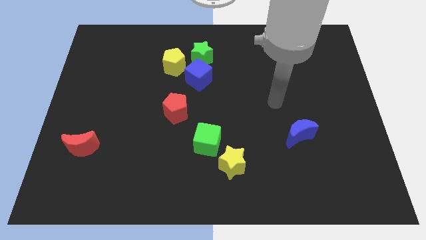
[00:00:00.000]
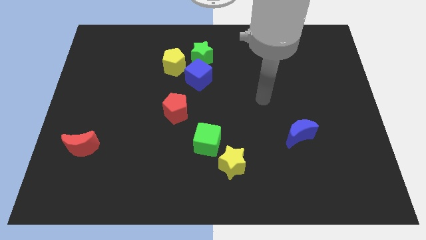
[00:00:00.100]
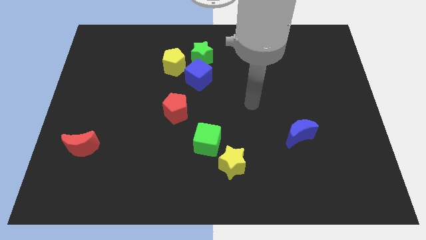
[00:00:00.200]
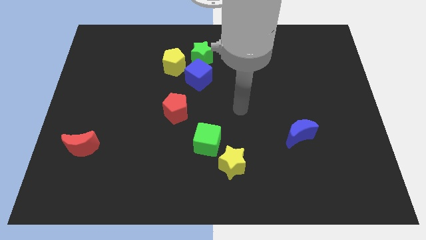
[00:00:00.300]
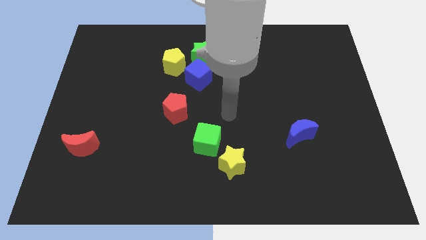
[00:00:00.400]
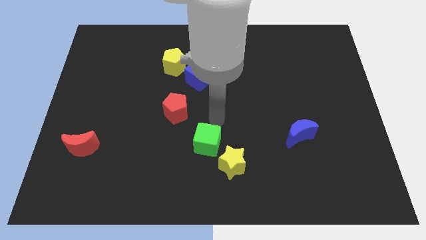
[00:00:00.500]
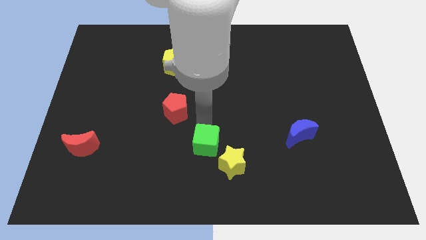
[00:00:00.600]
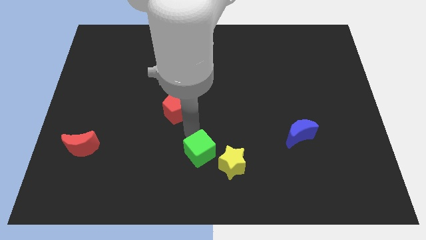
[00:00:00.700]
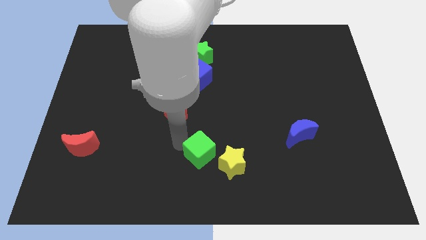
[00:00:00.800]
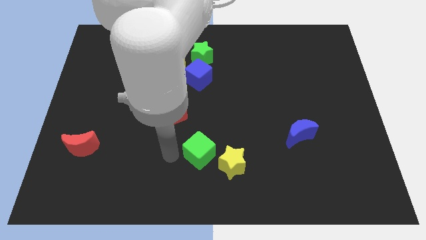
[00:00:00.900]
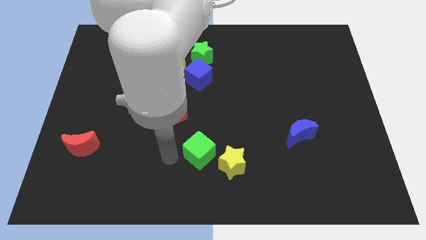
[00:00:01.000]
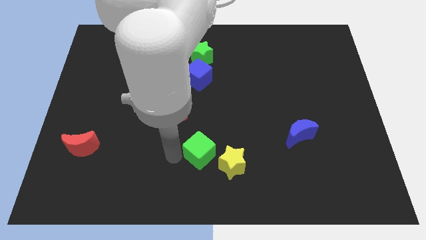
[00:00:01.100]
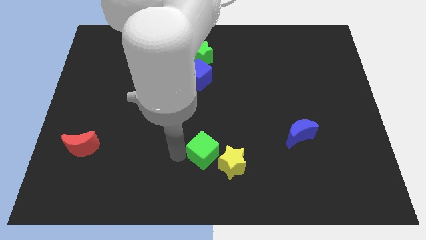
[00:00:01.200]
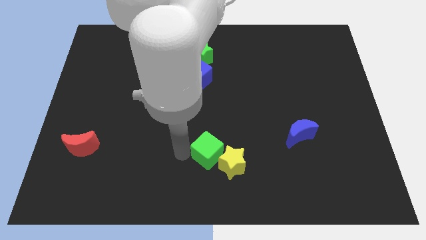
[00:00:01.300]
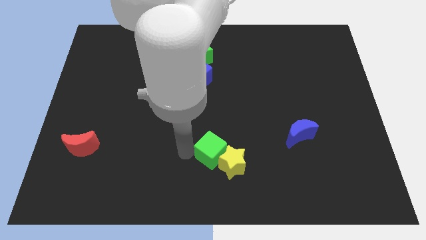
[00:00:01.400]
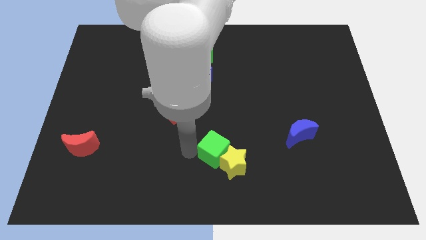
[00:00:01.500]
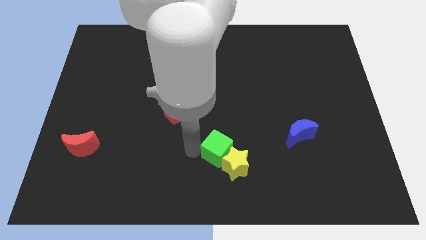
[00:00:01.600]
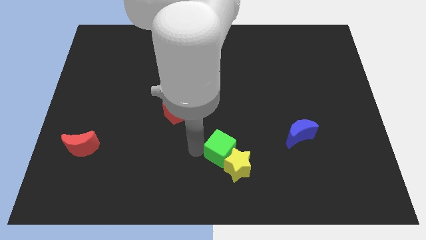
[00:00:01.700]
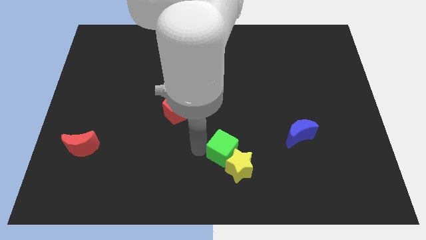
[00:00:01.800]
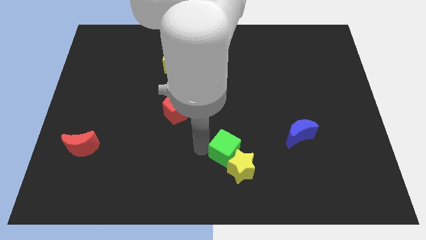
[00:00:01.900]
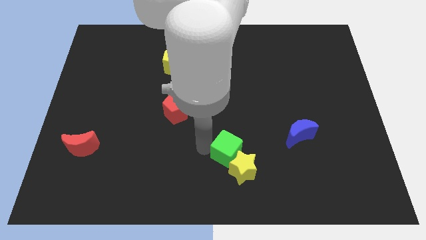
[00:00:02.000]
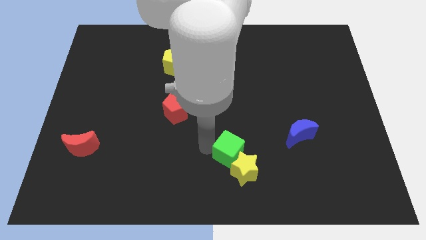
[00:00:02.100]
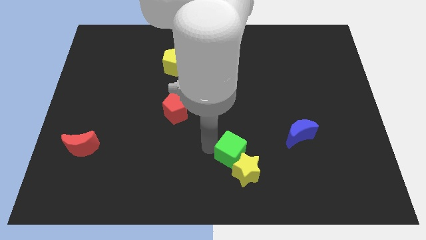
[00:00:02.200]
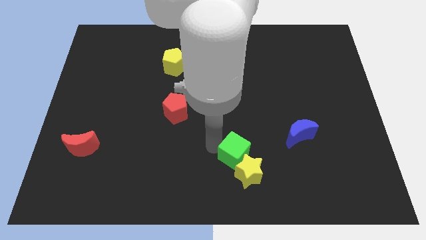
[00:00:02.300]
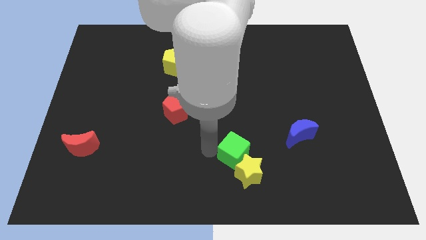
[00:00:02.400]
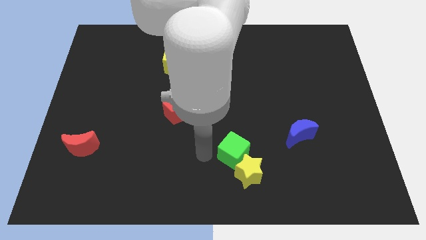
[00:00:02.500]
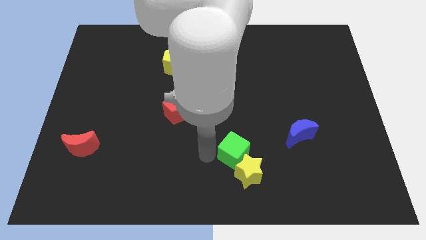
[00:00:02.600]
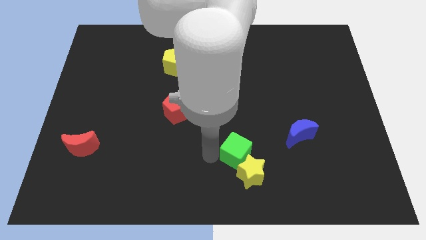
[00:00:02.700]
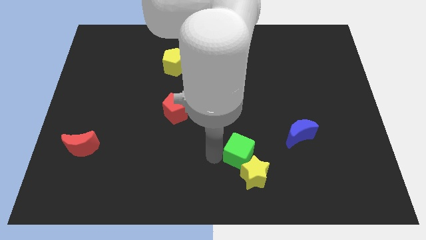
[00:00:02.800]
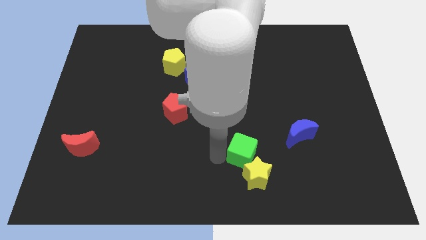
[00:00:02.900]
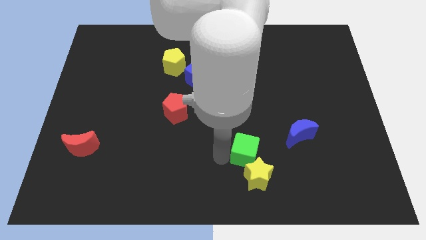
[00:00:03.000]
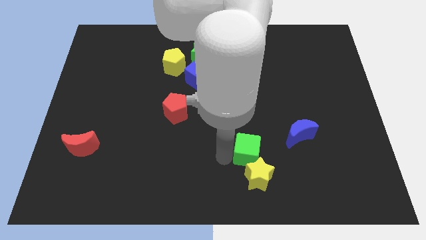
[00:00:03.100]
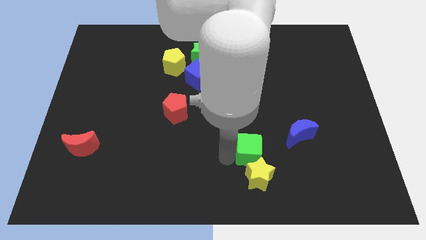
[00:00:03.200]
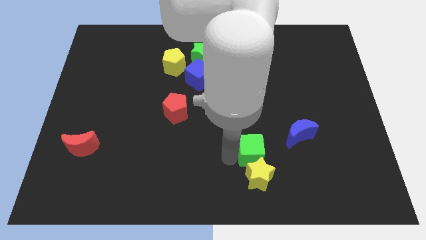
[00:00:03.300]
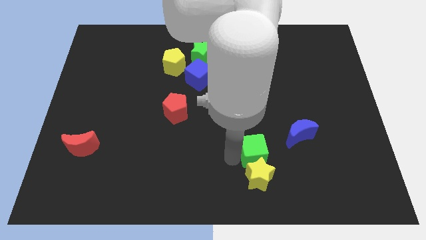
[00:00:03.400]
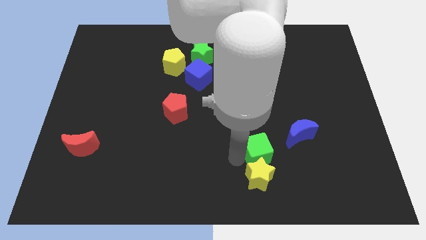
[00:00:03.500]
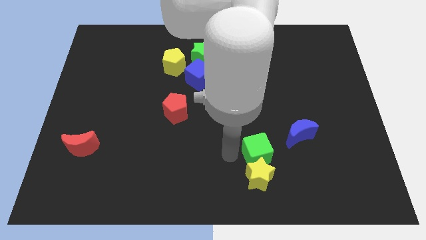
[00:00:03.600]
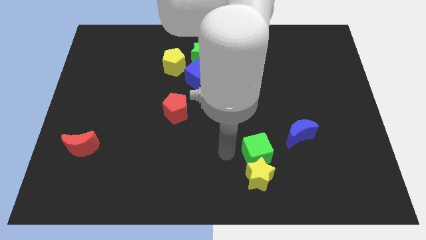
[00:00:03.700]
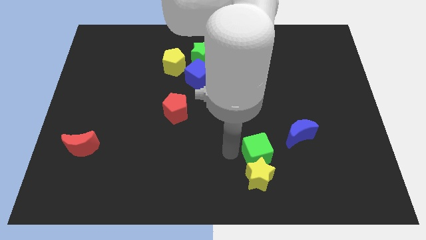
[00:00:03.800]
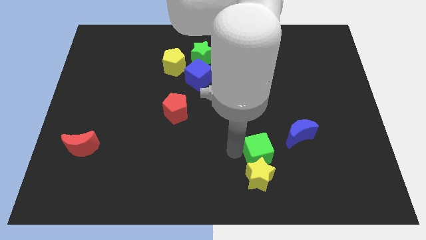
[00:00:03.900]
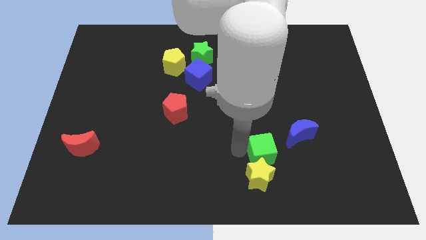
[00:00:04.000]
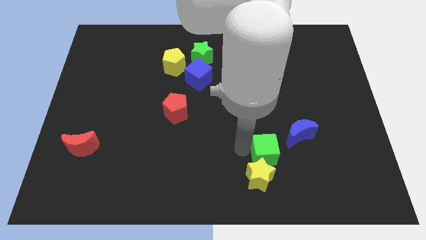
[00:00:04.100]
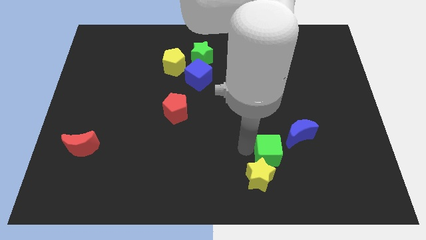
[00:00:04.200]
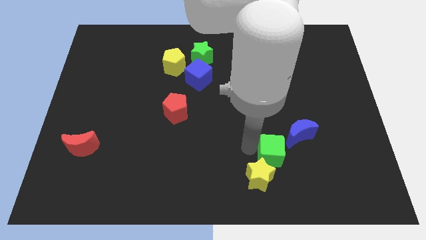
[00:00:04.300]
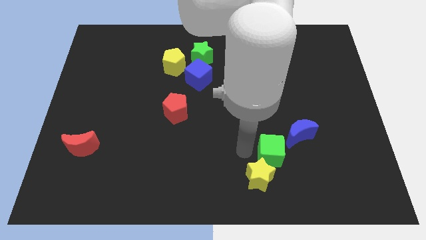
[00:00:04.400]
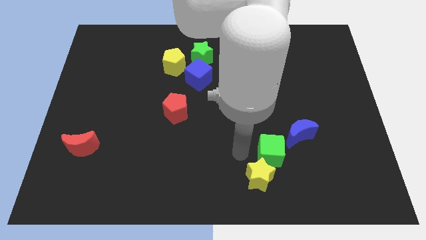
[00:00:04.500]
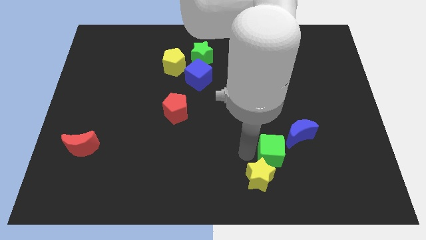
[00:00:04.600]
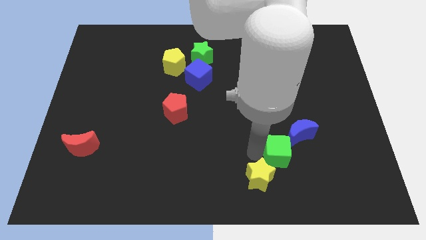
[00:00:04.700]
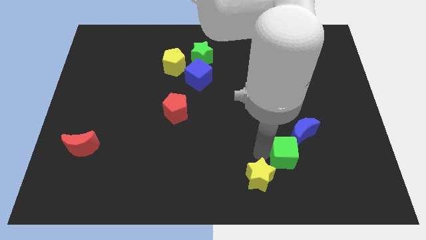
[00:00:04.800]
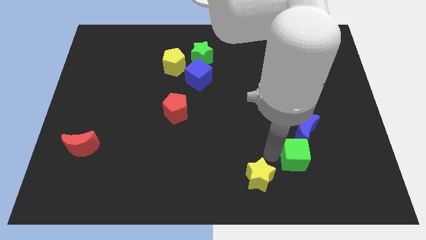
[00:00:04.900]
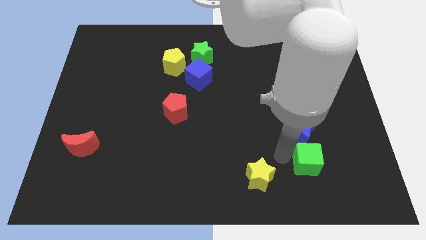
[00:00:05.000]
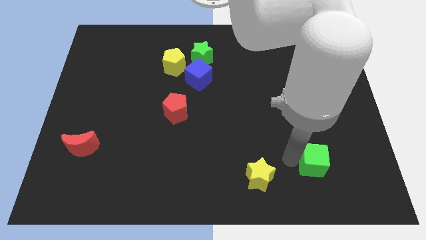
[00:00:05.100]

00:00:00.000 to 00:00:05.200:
move the green cube to the bottom right of the blue moon

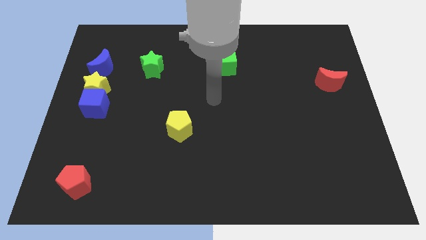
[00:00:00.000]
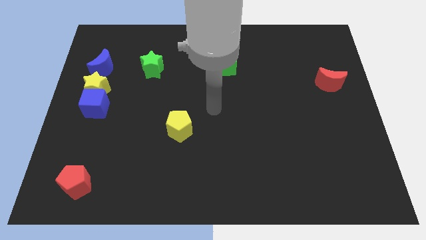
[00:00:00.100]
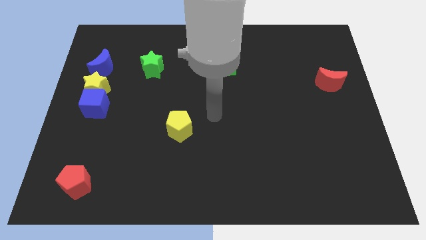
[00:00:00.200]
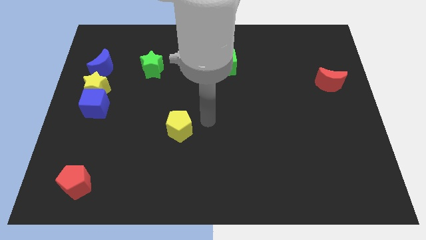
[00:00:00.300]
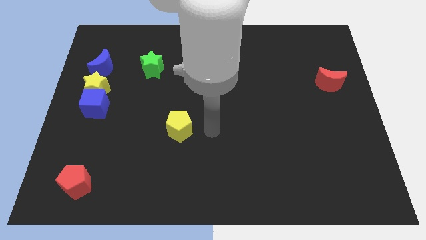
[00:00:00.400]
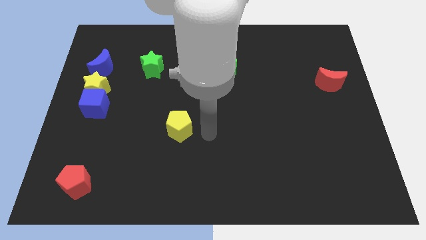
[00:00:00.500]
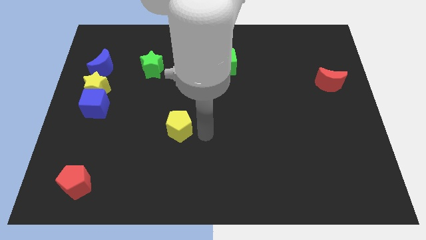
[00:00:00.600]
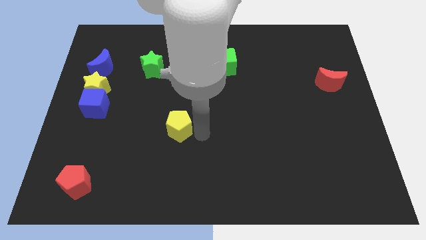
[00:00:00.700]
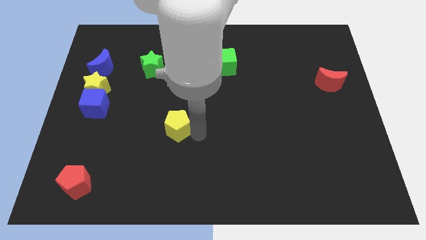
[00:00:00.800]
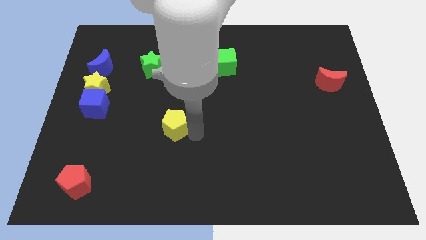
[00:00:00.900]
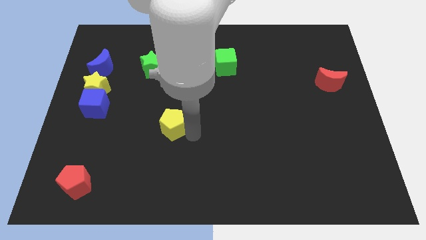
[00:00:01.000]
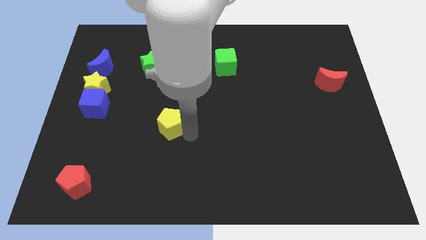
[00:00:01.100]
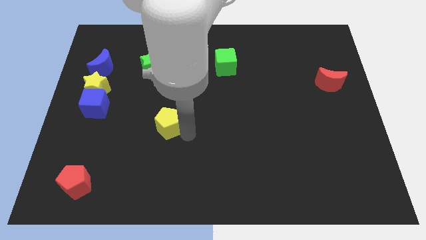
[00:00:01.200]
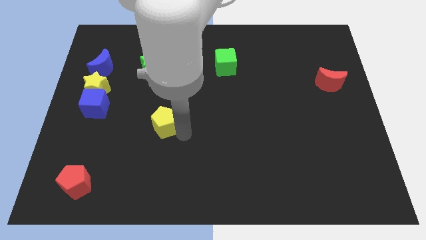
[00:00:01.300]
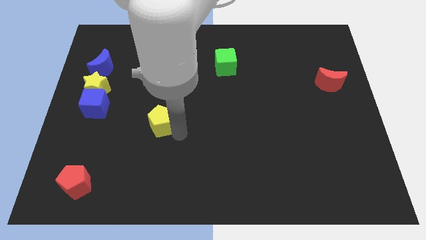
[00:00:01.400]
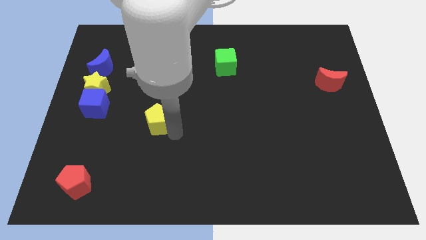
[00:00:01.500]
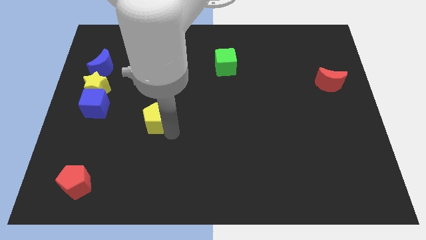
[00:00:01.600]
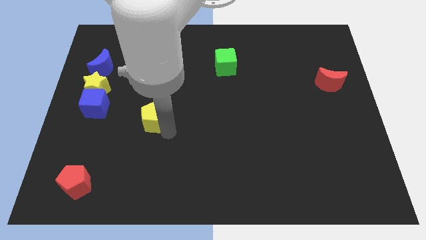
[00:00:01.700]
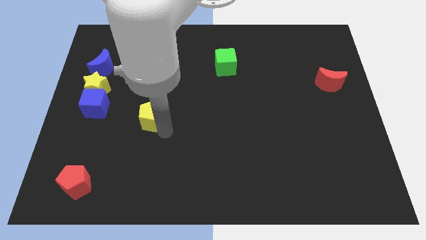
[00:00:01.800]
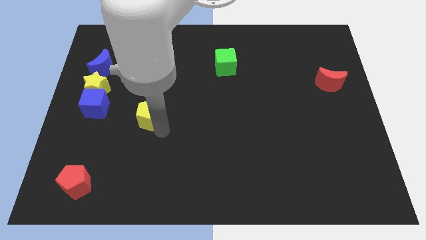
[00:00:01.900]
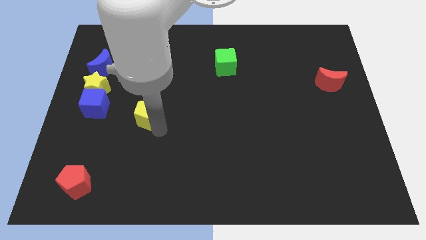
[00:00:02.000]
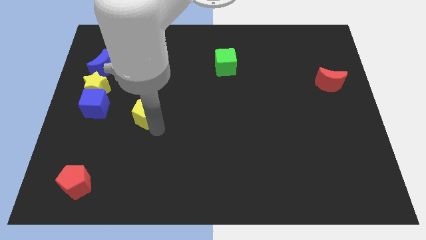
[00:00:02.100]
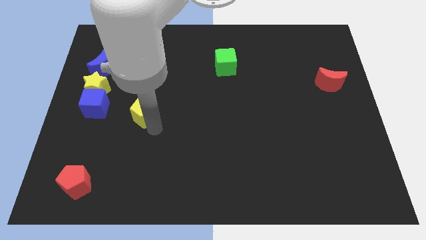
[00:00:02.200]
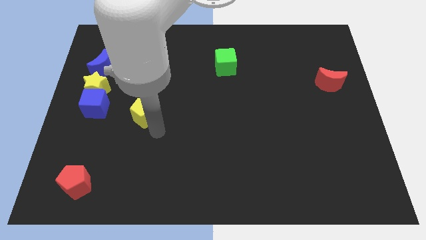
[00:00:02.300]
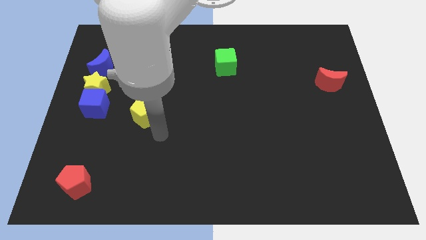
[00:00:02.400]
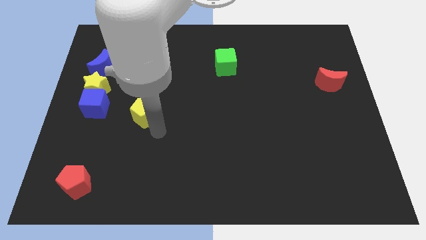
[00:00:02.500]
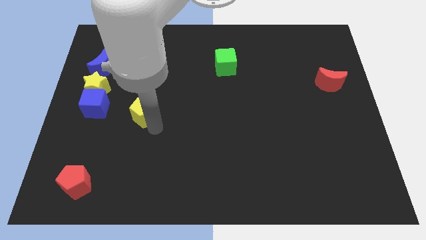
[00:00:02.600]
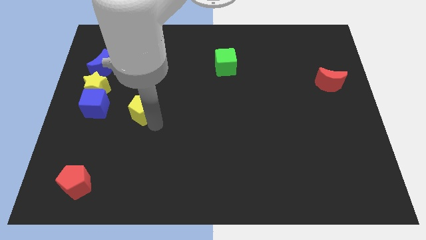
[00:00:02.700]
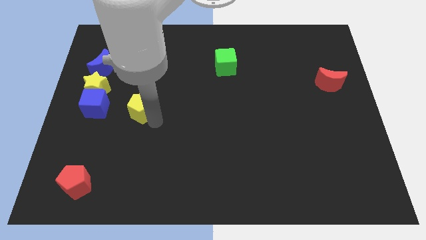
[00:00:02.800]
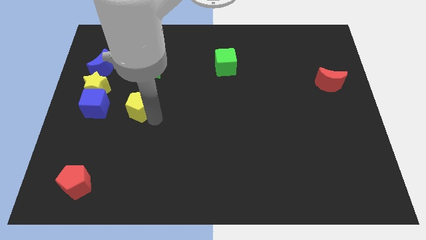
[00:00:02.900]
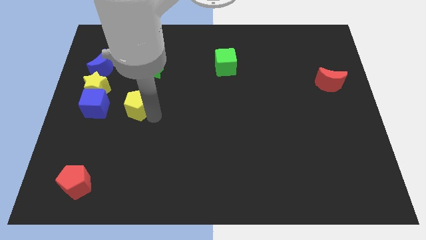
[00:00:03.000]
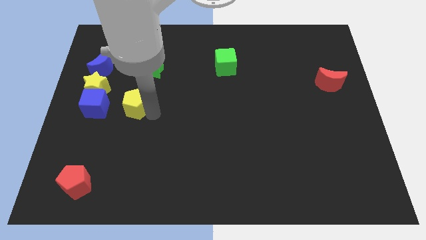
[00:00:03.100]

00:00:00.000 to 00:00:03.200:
put the yellow pentagon to the bottom right side of the yellow star
